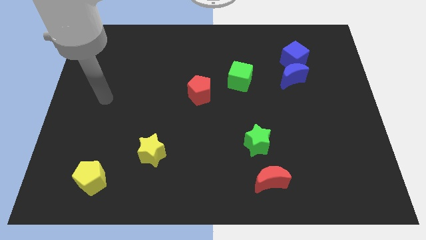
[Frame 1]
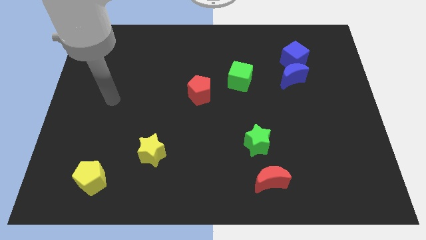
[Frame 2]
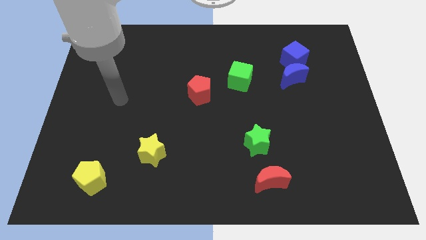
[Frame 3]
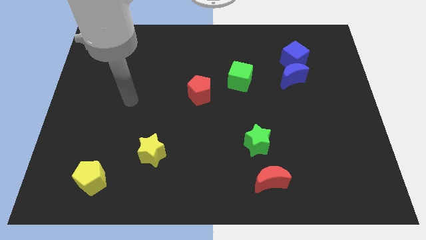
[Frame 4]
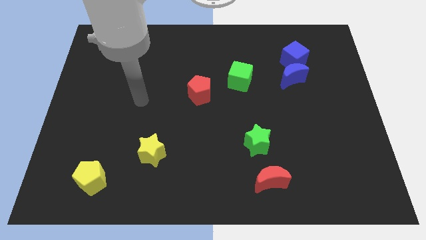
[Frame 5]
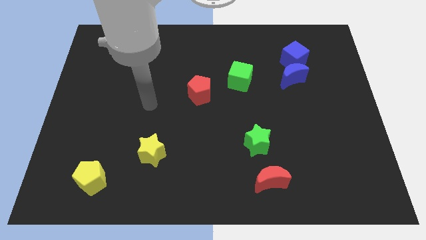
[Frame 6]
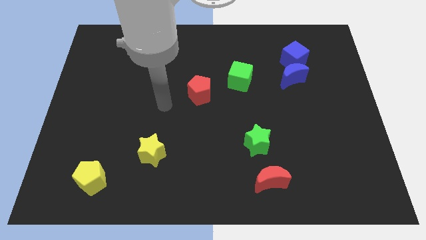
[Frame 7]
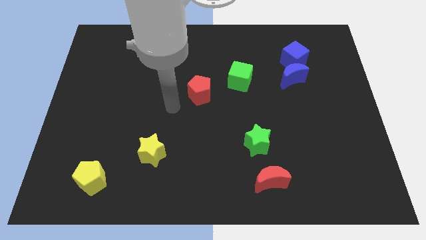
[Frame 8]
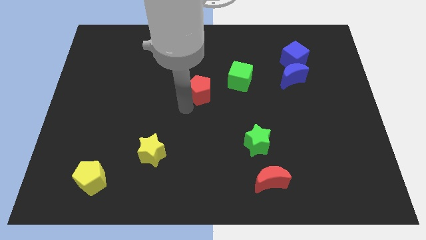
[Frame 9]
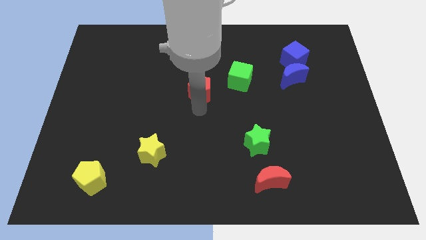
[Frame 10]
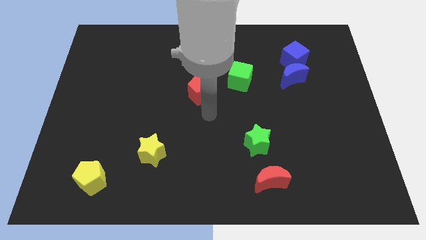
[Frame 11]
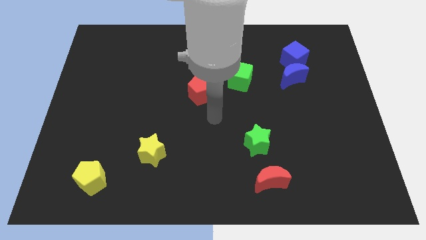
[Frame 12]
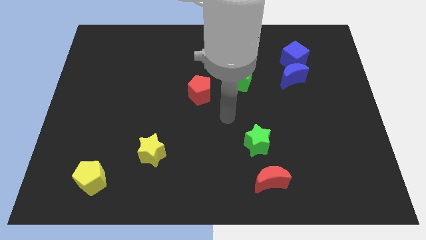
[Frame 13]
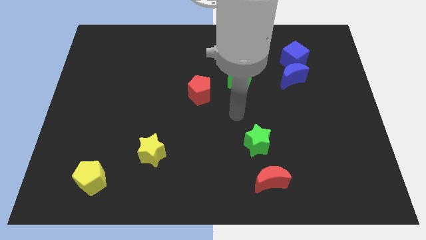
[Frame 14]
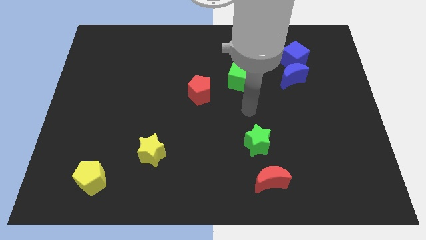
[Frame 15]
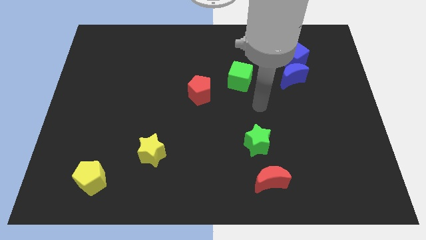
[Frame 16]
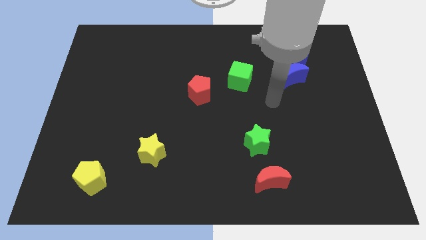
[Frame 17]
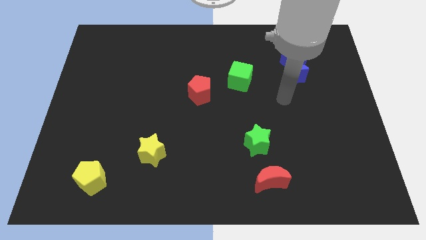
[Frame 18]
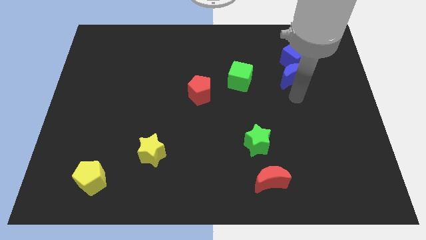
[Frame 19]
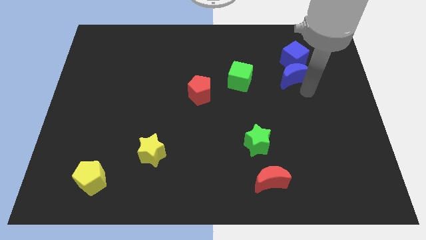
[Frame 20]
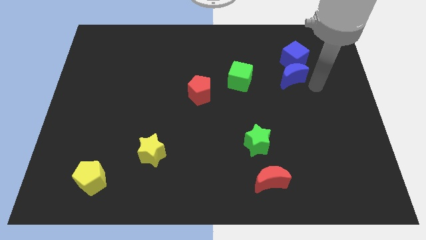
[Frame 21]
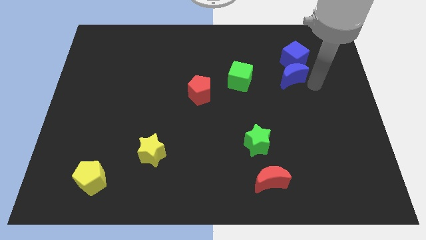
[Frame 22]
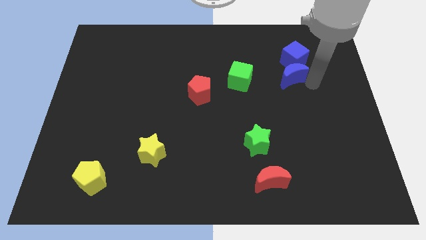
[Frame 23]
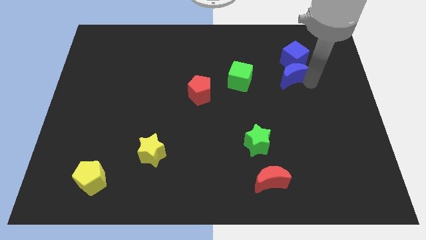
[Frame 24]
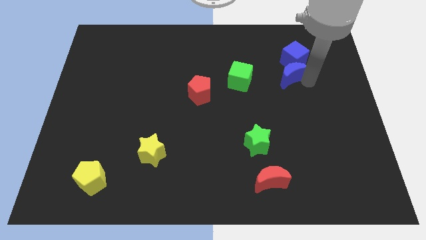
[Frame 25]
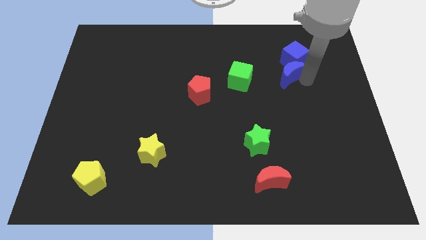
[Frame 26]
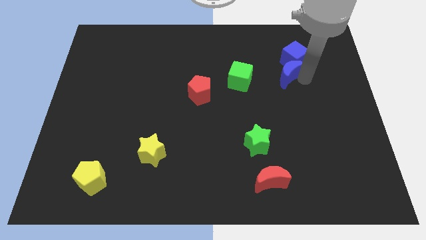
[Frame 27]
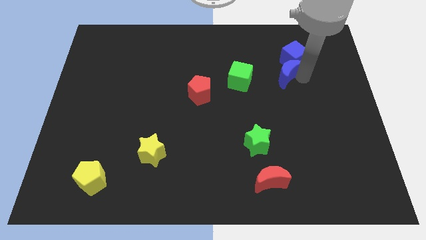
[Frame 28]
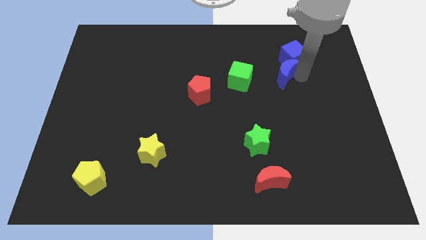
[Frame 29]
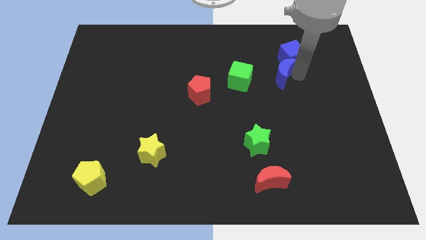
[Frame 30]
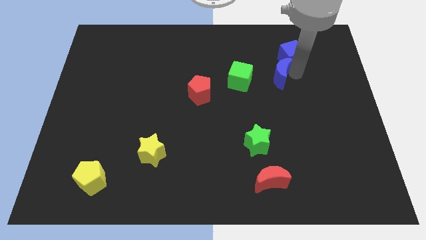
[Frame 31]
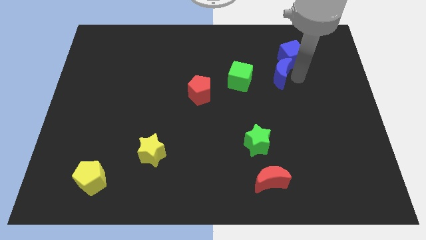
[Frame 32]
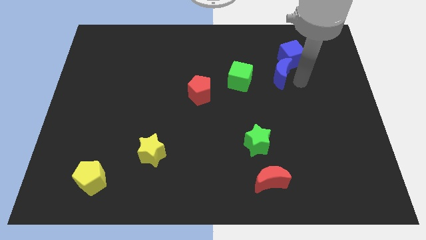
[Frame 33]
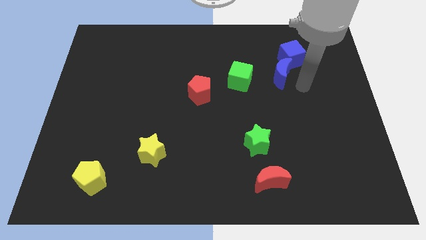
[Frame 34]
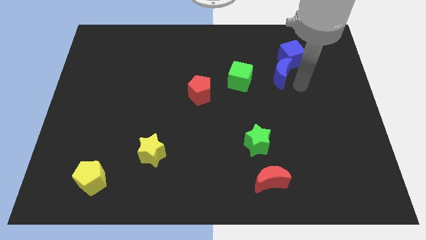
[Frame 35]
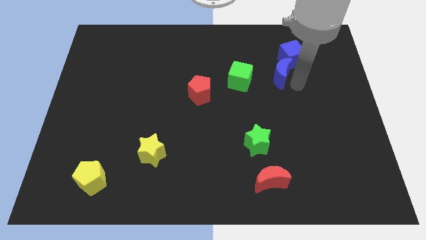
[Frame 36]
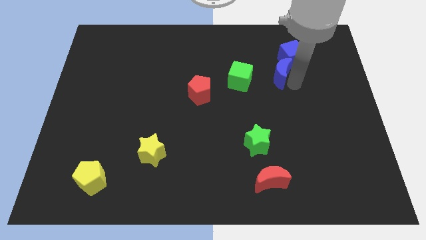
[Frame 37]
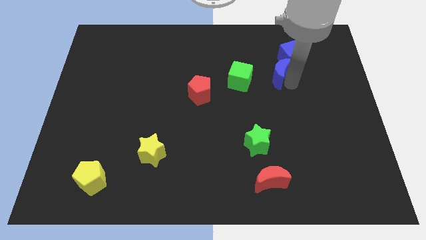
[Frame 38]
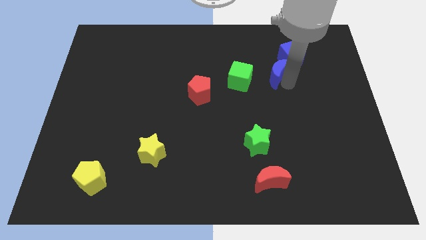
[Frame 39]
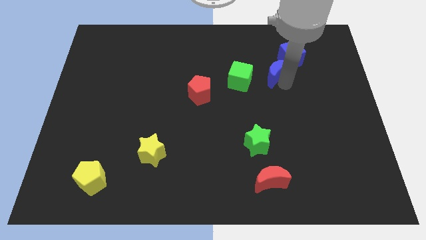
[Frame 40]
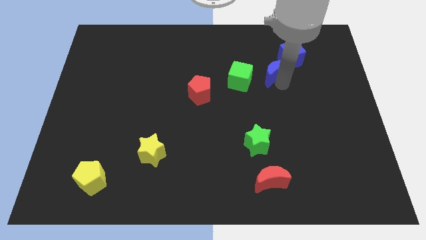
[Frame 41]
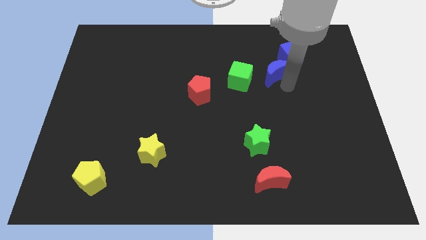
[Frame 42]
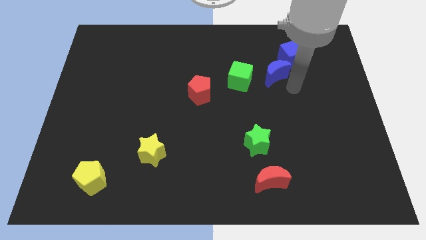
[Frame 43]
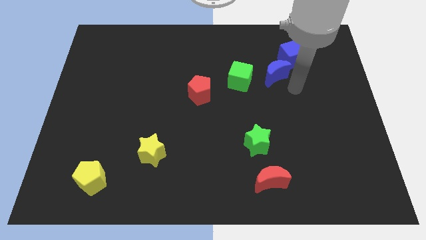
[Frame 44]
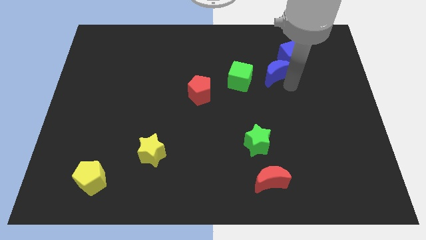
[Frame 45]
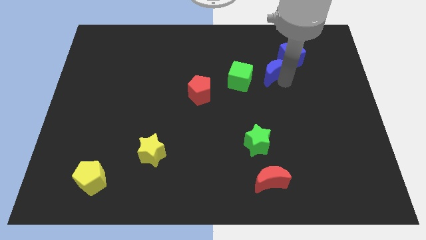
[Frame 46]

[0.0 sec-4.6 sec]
slide the blue moon to the top right side of the green cube

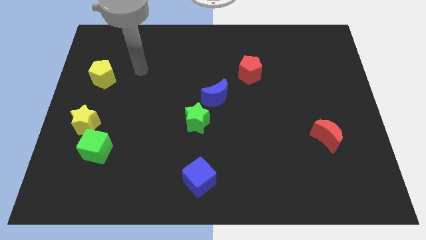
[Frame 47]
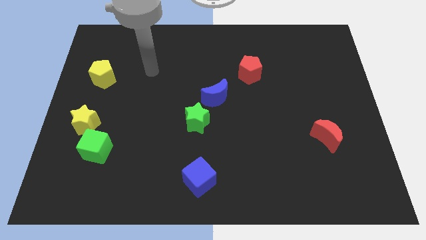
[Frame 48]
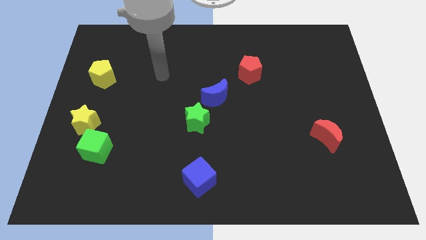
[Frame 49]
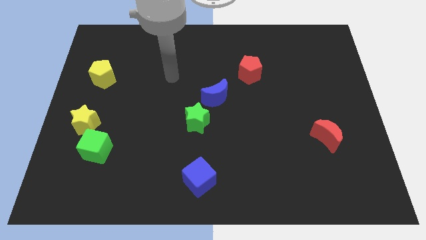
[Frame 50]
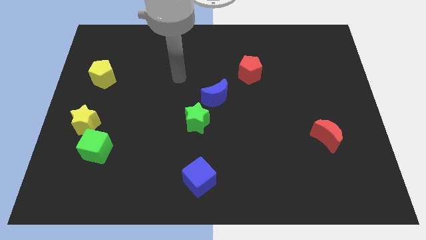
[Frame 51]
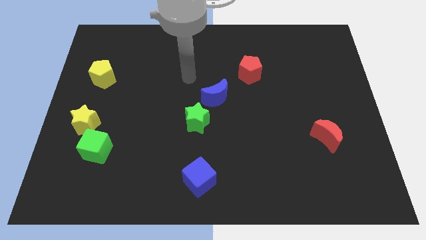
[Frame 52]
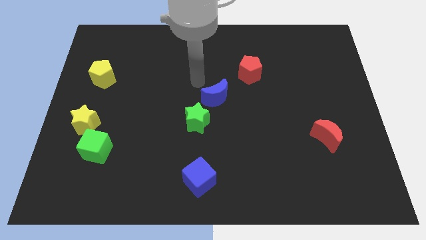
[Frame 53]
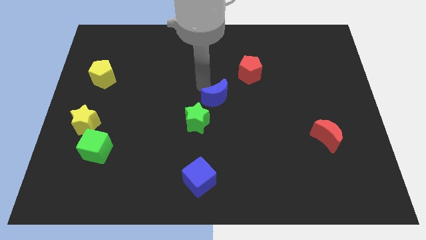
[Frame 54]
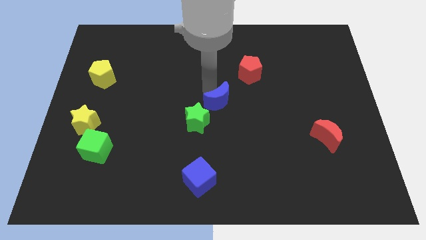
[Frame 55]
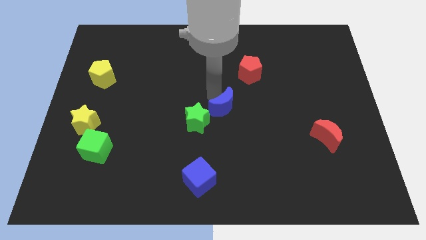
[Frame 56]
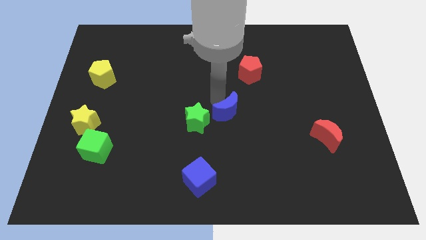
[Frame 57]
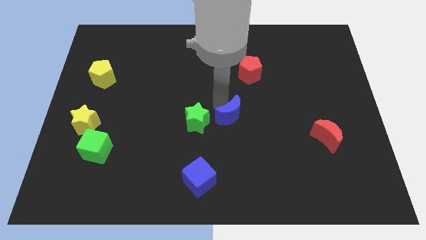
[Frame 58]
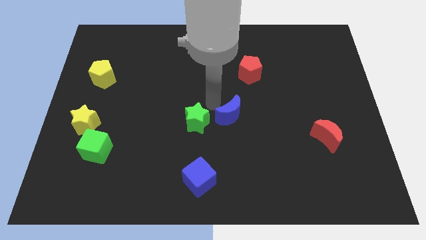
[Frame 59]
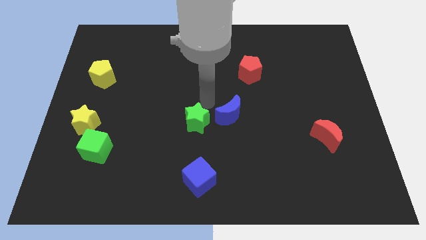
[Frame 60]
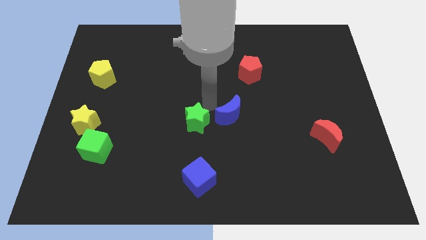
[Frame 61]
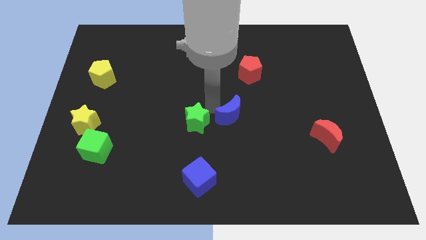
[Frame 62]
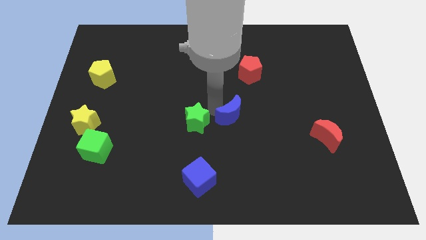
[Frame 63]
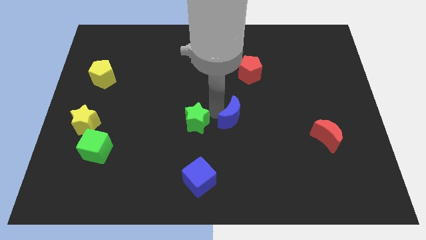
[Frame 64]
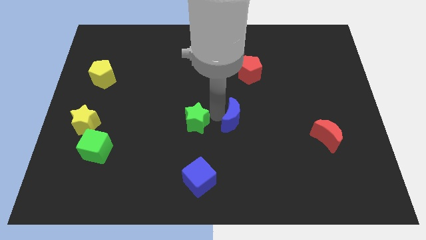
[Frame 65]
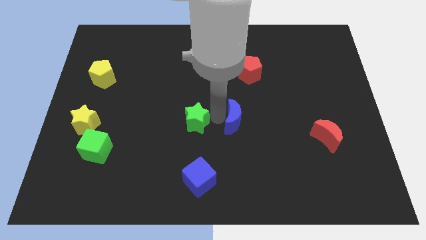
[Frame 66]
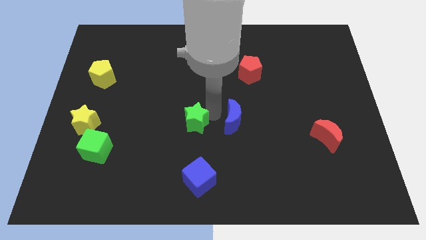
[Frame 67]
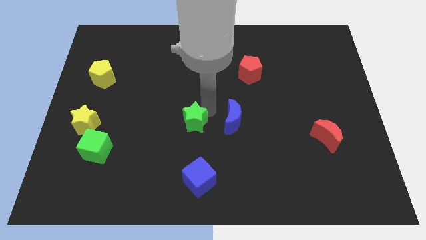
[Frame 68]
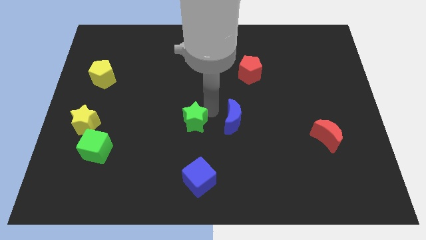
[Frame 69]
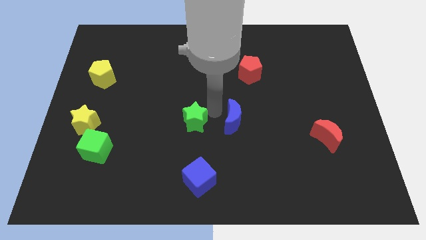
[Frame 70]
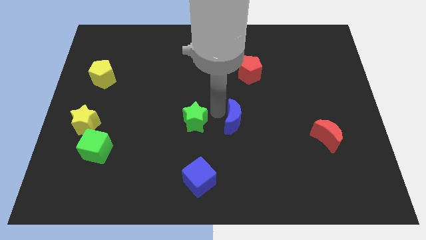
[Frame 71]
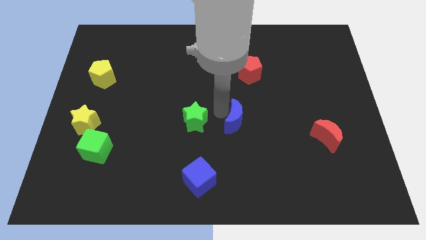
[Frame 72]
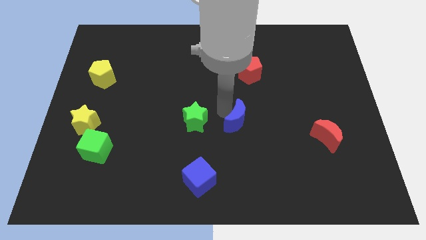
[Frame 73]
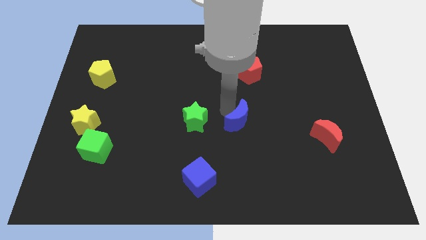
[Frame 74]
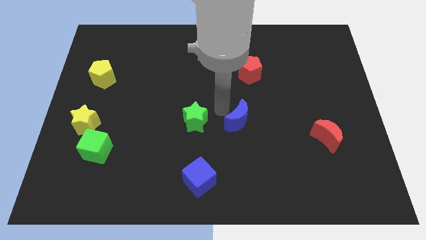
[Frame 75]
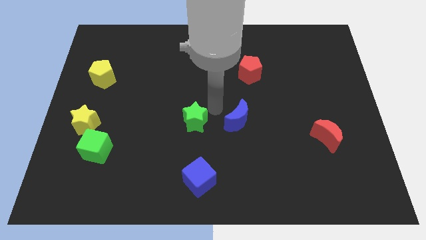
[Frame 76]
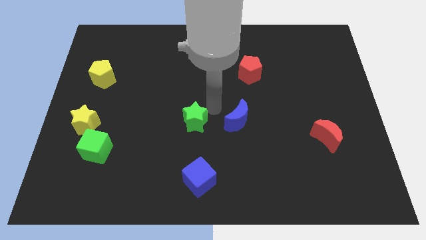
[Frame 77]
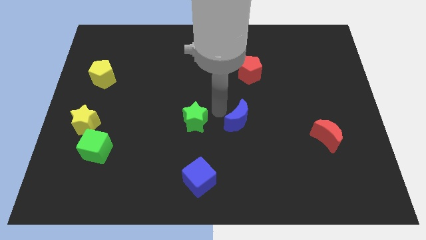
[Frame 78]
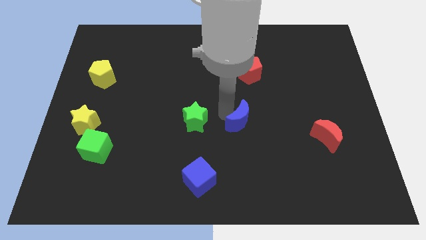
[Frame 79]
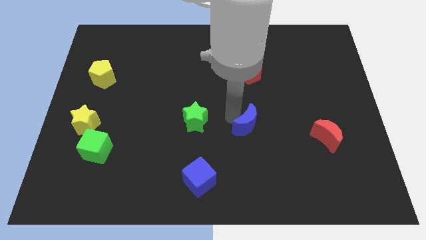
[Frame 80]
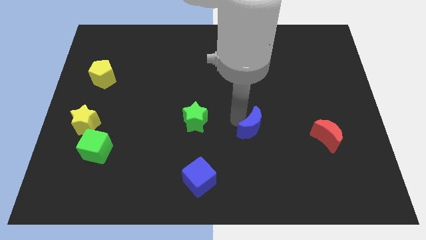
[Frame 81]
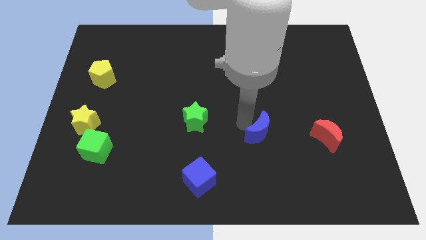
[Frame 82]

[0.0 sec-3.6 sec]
put the blue moon just left of the red moon
